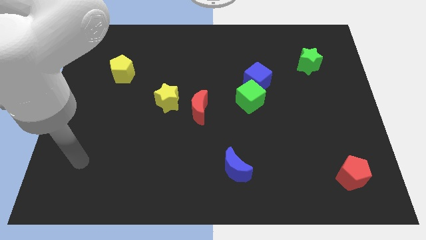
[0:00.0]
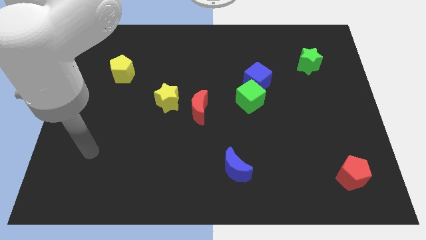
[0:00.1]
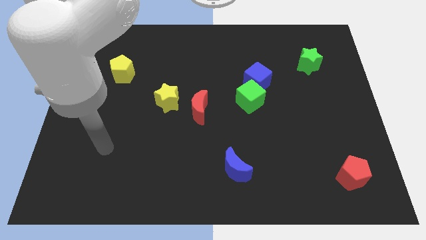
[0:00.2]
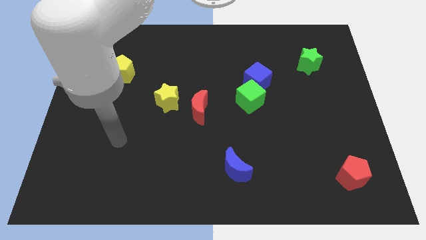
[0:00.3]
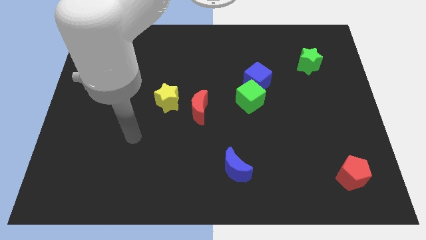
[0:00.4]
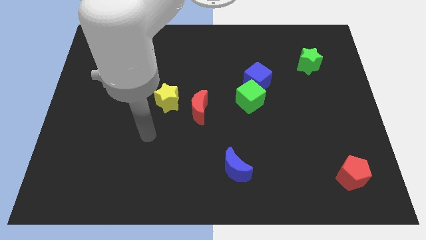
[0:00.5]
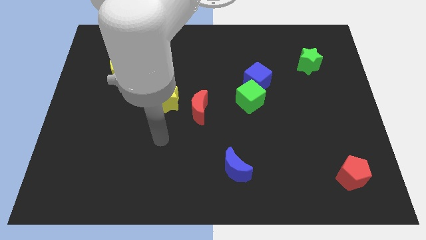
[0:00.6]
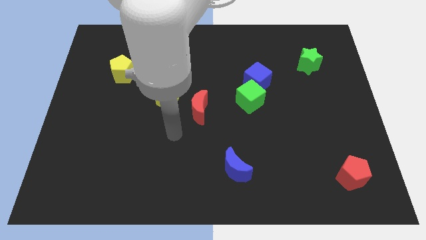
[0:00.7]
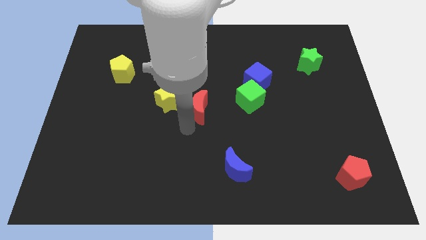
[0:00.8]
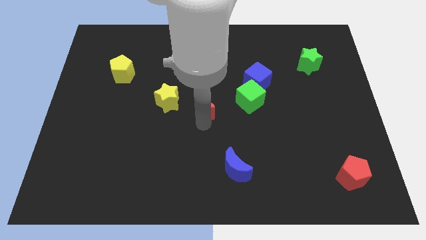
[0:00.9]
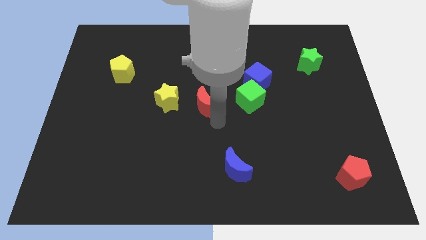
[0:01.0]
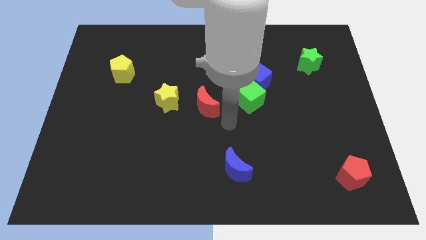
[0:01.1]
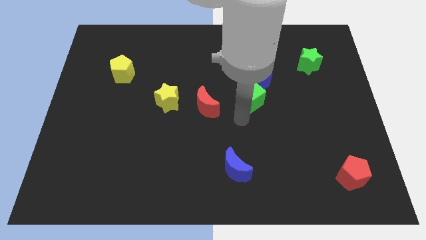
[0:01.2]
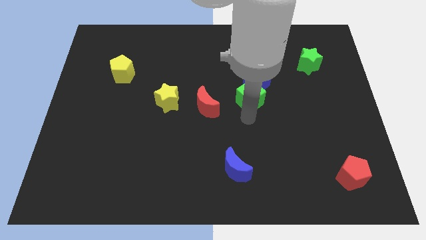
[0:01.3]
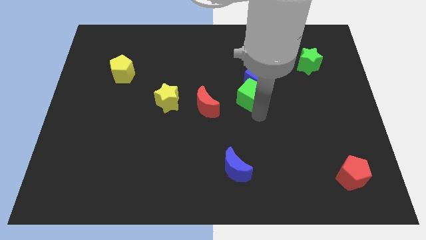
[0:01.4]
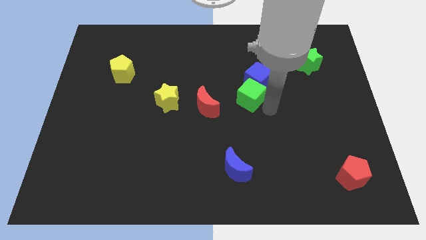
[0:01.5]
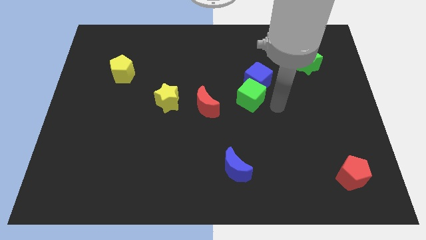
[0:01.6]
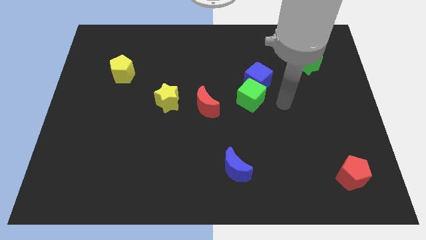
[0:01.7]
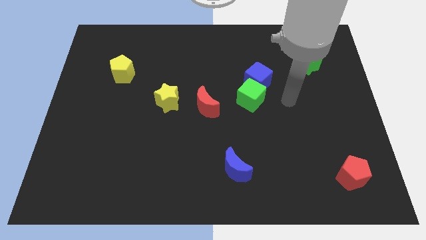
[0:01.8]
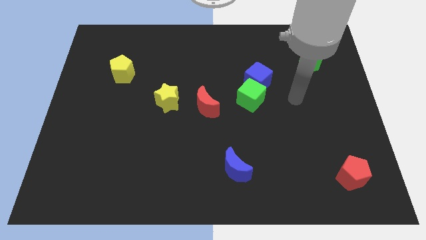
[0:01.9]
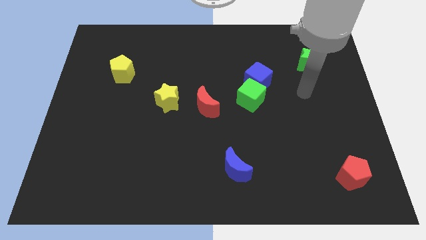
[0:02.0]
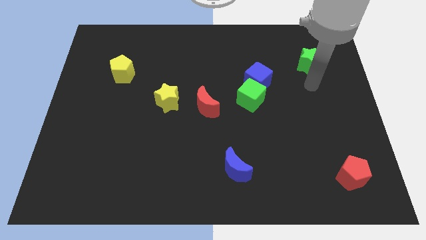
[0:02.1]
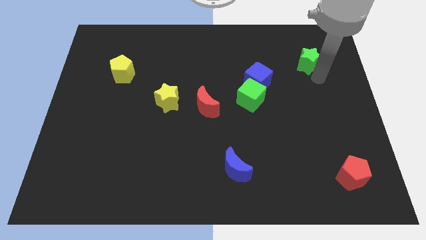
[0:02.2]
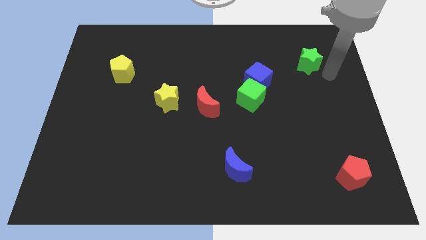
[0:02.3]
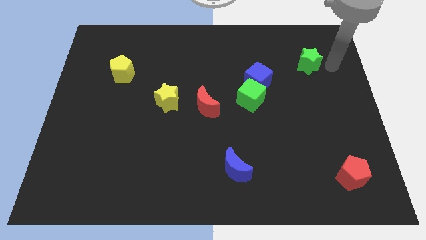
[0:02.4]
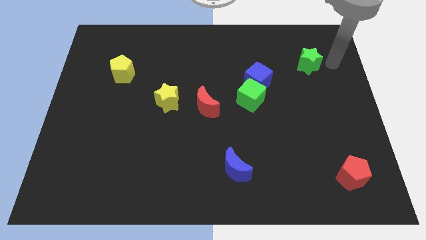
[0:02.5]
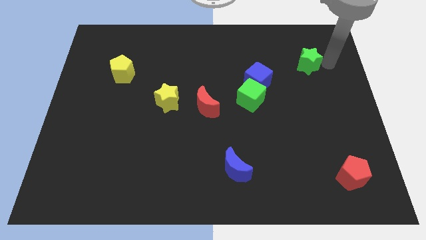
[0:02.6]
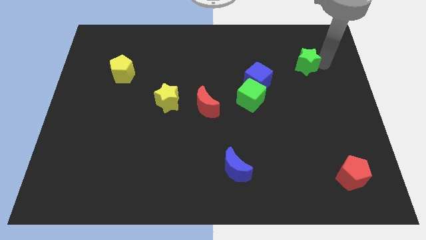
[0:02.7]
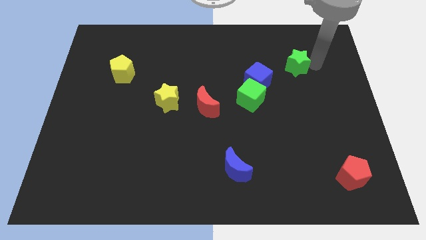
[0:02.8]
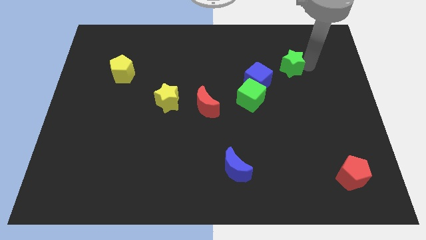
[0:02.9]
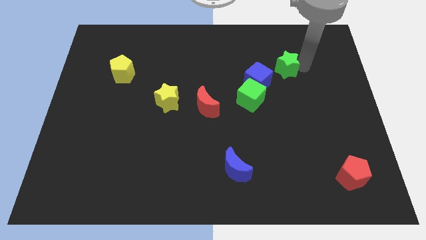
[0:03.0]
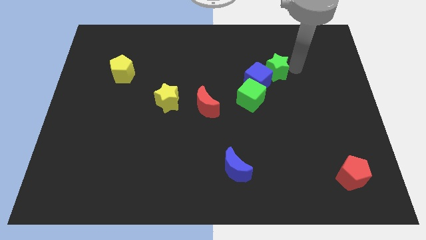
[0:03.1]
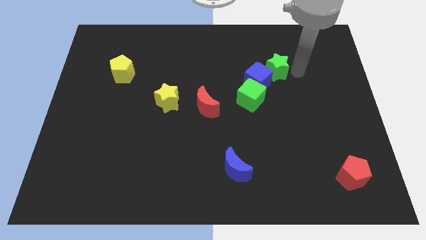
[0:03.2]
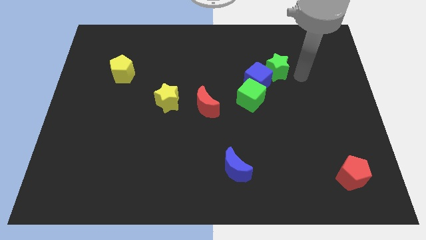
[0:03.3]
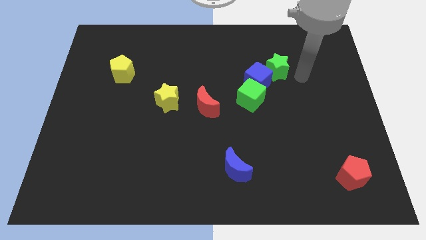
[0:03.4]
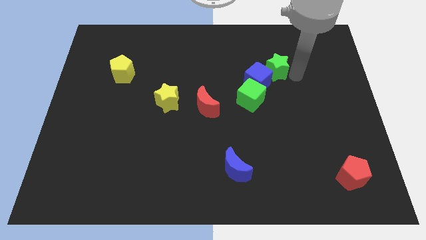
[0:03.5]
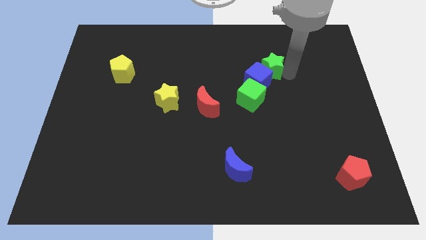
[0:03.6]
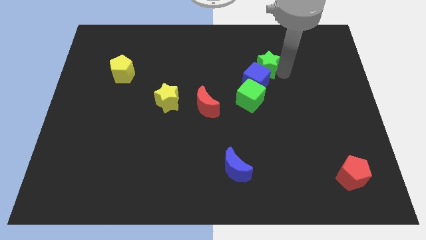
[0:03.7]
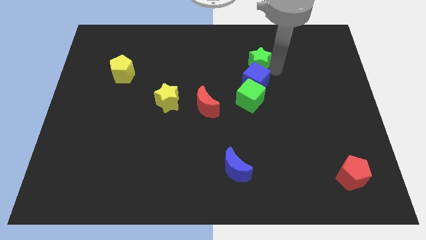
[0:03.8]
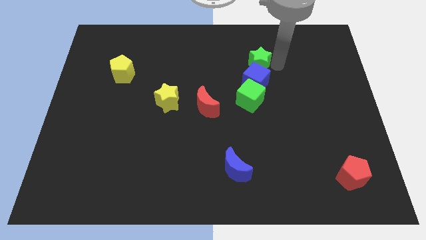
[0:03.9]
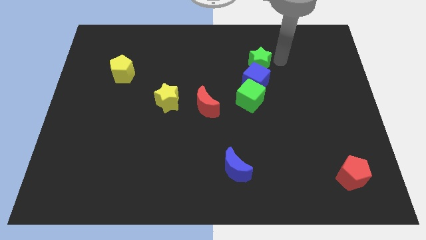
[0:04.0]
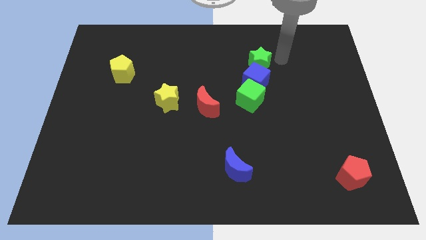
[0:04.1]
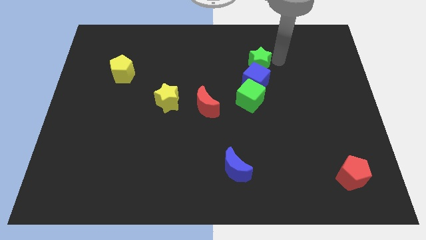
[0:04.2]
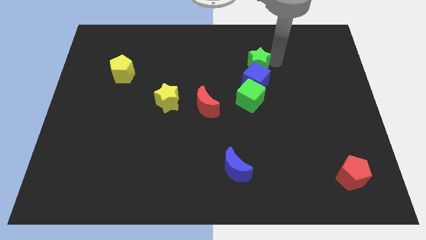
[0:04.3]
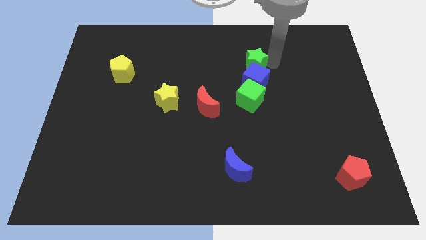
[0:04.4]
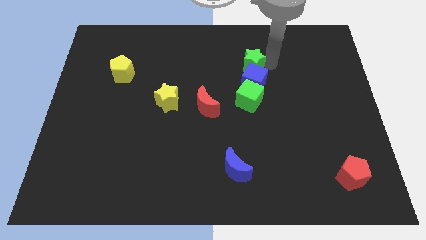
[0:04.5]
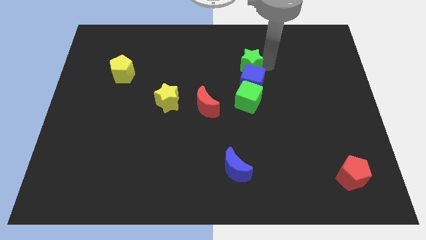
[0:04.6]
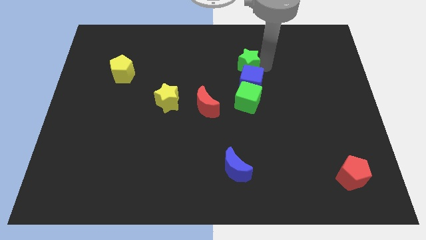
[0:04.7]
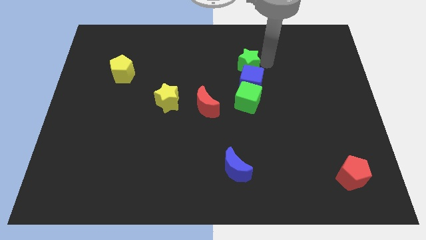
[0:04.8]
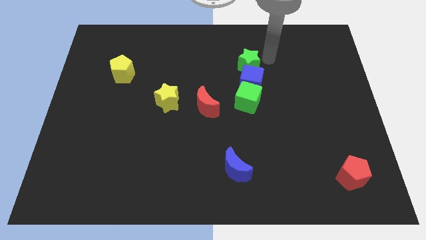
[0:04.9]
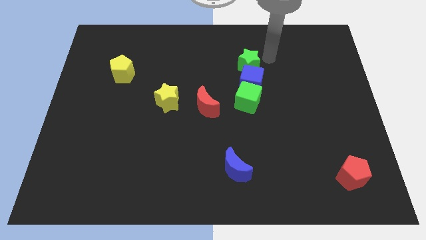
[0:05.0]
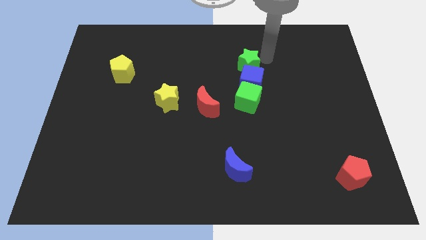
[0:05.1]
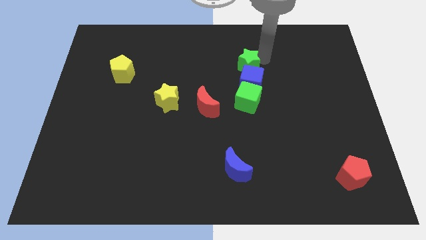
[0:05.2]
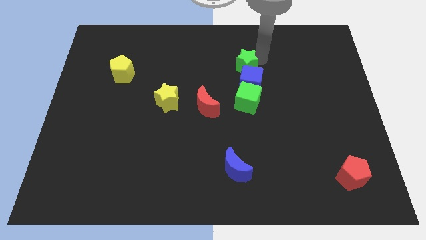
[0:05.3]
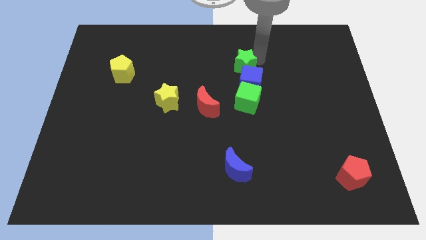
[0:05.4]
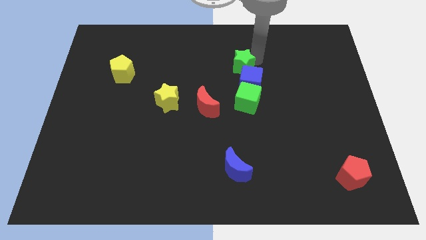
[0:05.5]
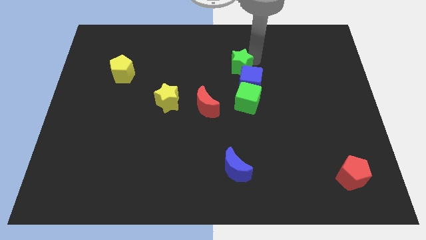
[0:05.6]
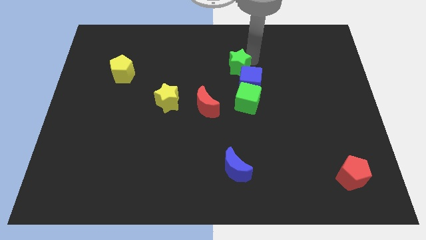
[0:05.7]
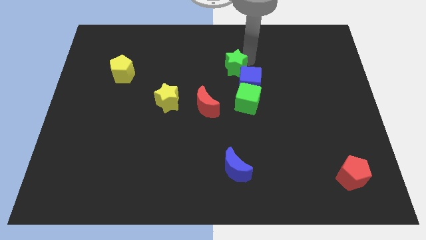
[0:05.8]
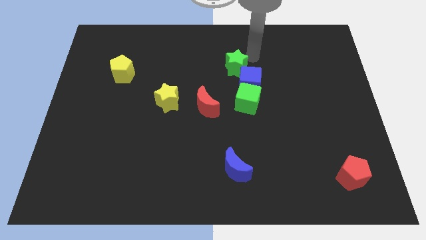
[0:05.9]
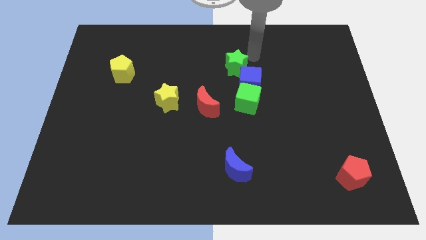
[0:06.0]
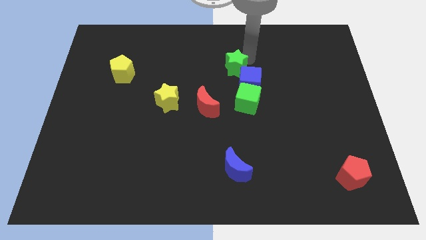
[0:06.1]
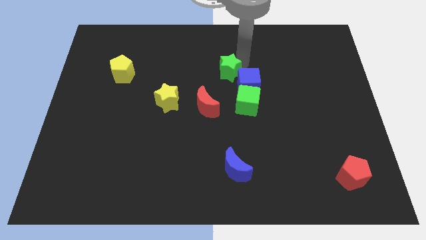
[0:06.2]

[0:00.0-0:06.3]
slide the green star to the left of the blue cube

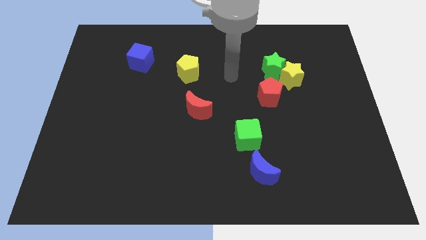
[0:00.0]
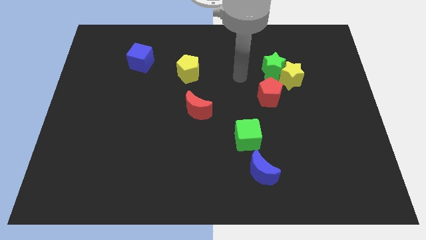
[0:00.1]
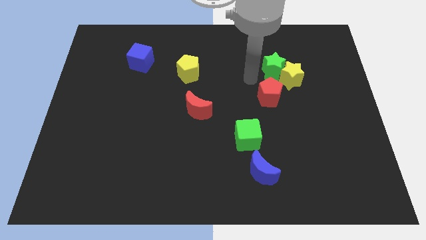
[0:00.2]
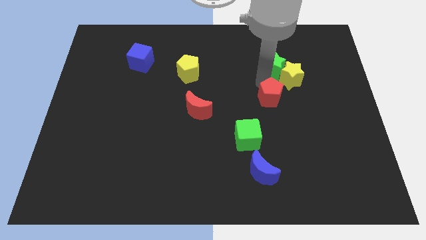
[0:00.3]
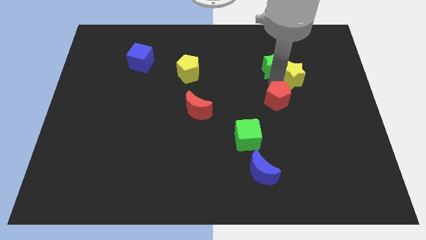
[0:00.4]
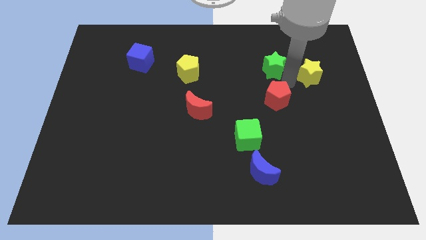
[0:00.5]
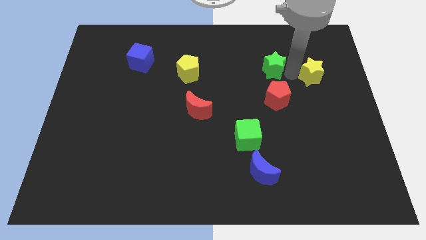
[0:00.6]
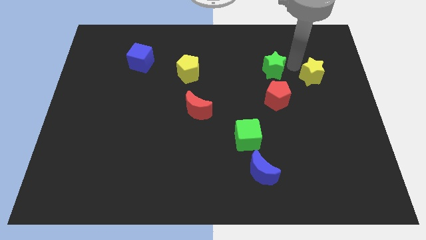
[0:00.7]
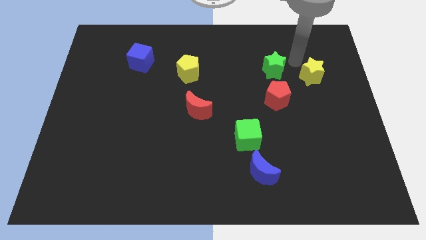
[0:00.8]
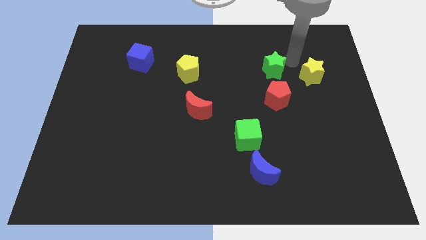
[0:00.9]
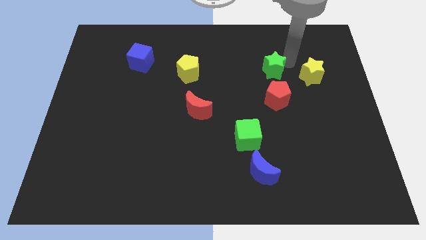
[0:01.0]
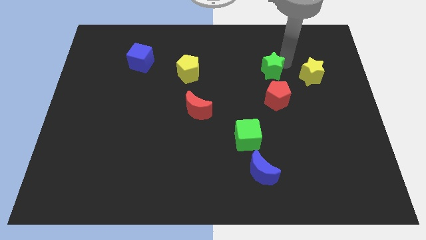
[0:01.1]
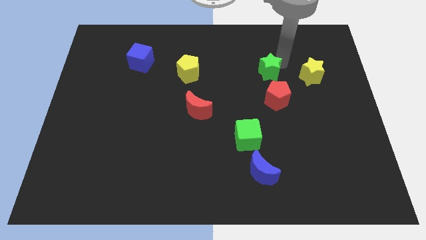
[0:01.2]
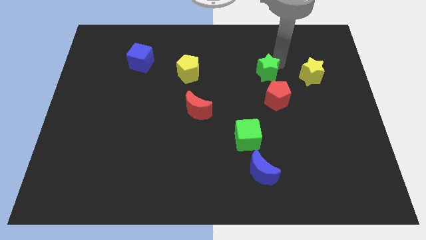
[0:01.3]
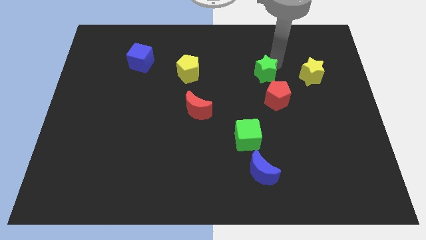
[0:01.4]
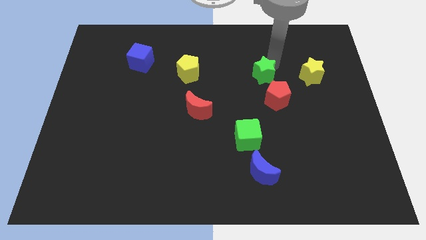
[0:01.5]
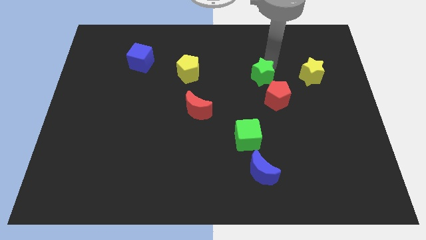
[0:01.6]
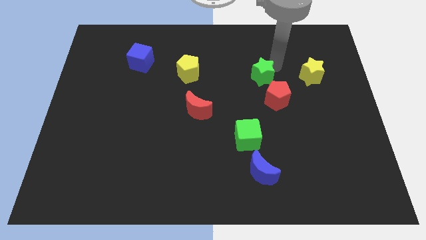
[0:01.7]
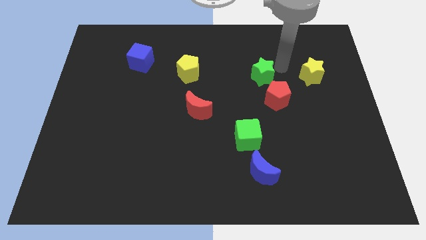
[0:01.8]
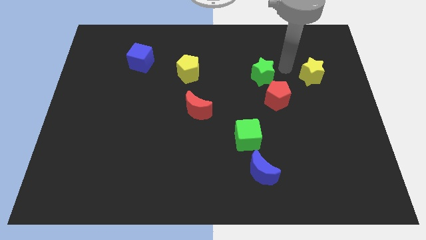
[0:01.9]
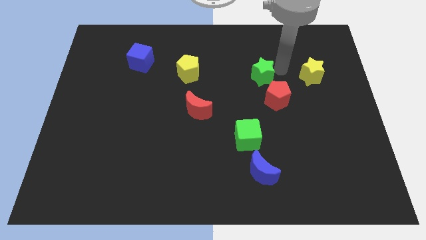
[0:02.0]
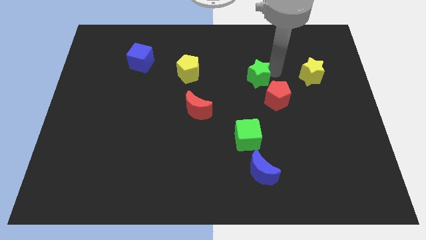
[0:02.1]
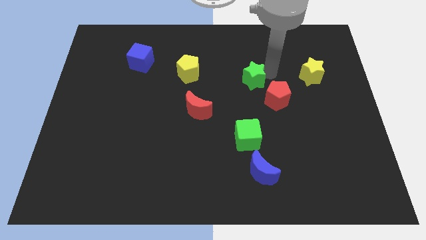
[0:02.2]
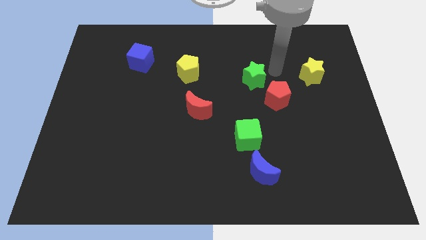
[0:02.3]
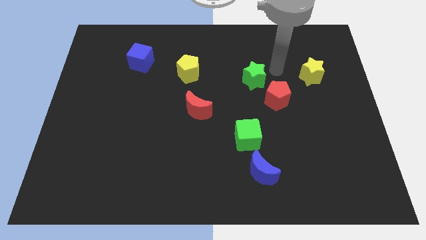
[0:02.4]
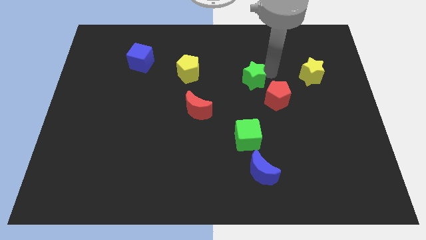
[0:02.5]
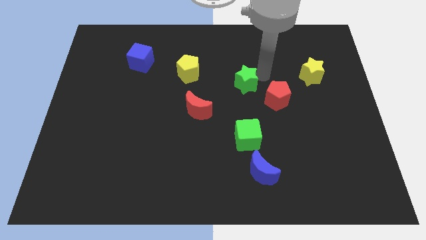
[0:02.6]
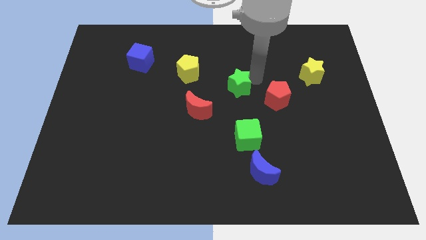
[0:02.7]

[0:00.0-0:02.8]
slide the green star diagonally up and to the right of the red moon
